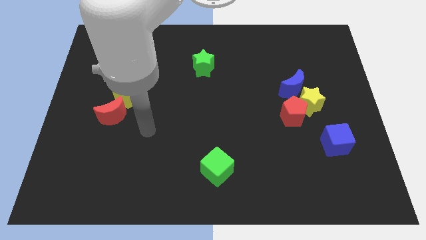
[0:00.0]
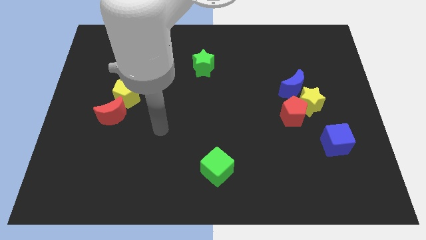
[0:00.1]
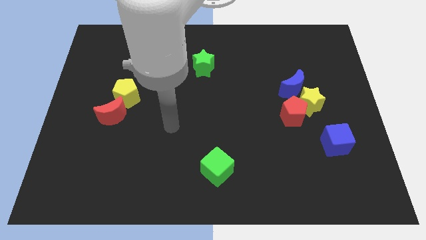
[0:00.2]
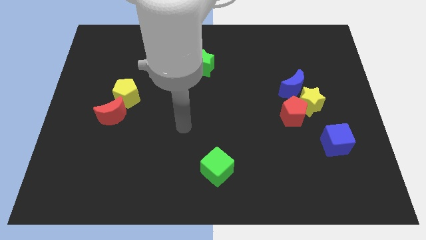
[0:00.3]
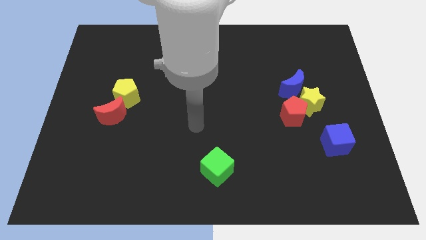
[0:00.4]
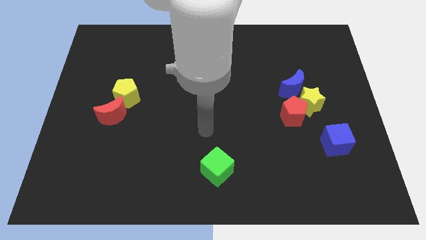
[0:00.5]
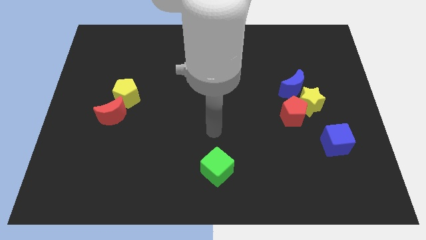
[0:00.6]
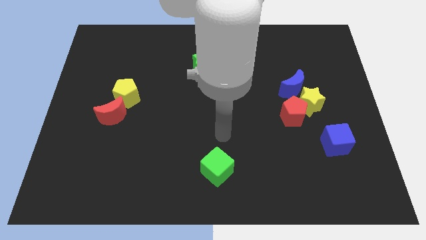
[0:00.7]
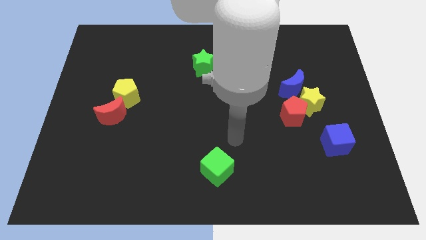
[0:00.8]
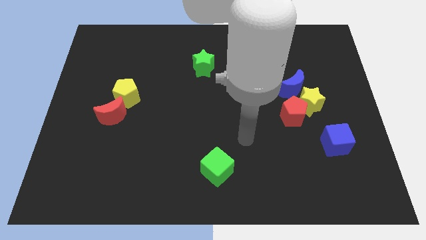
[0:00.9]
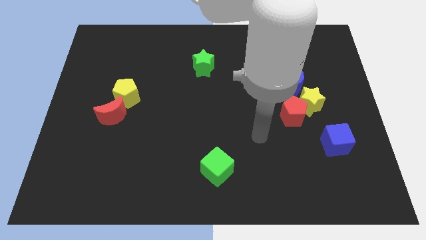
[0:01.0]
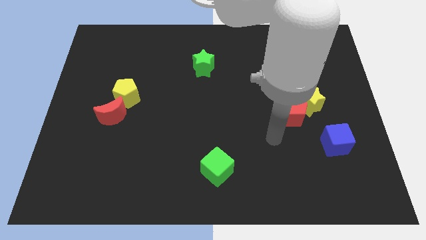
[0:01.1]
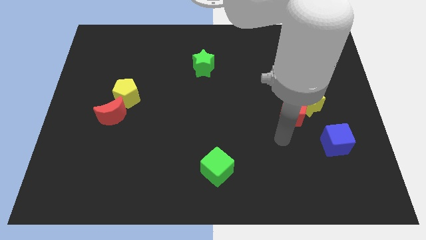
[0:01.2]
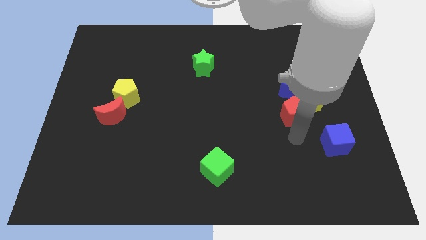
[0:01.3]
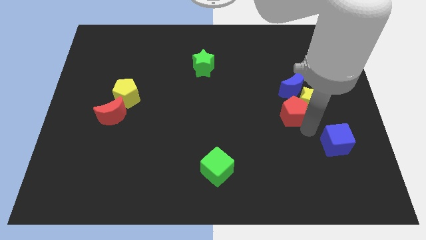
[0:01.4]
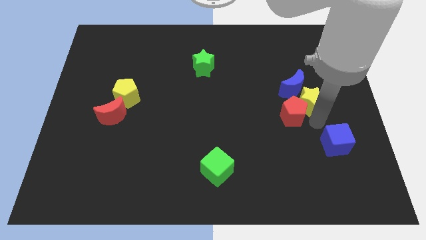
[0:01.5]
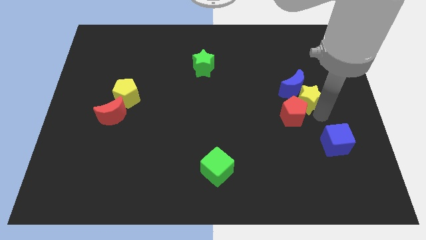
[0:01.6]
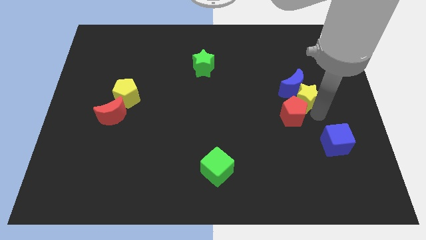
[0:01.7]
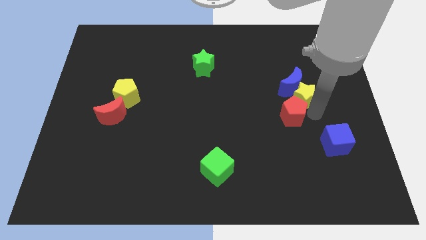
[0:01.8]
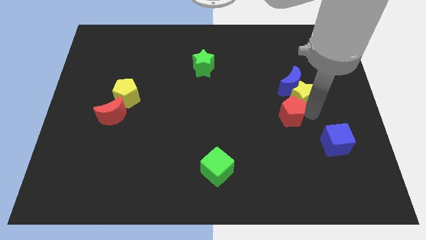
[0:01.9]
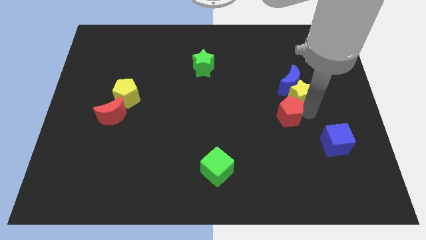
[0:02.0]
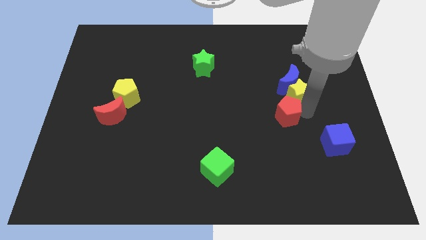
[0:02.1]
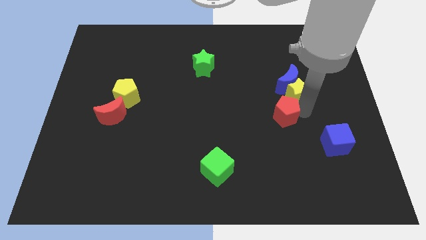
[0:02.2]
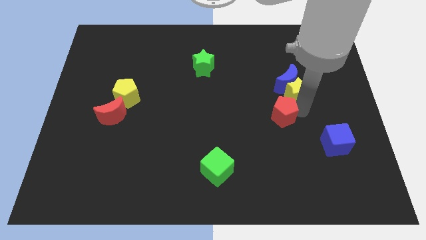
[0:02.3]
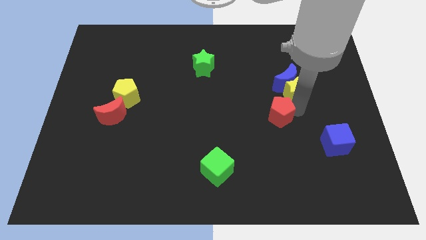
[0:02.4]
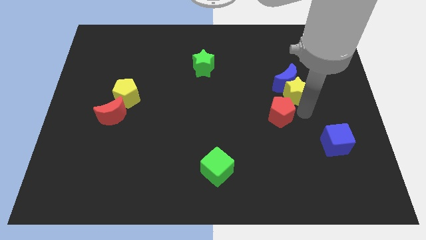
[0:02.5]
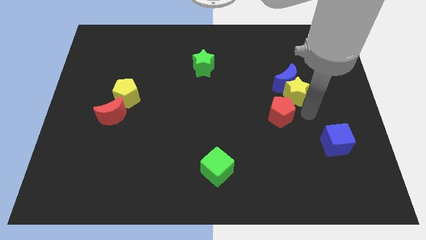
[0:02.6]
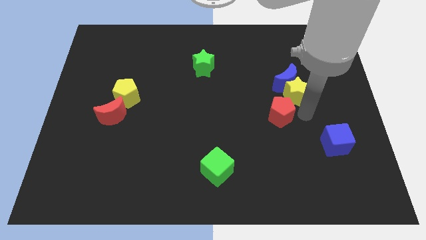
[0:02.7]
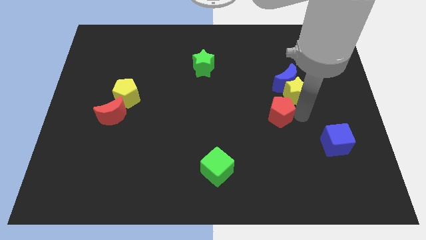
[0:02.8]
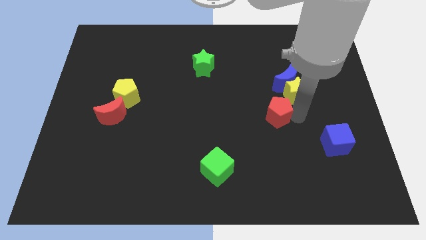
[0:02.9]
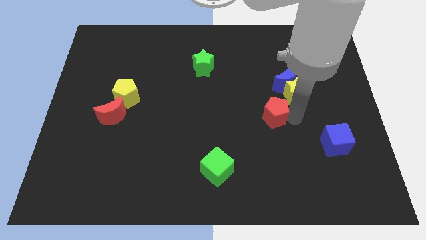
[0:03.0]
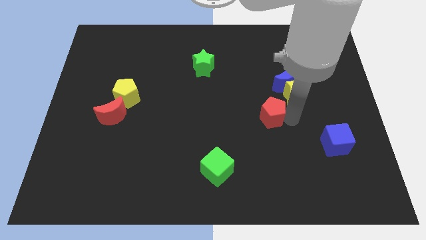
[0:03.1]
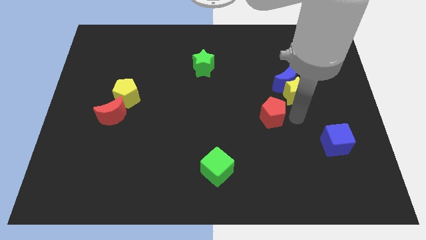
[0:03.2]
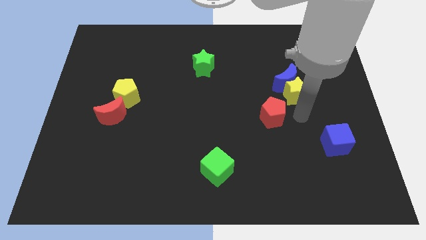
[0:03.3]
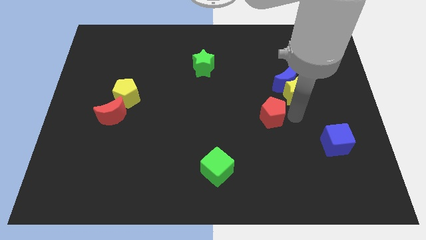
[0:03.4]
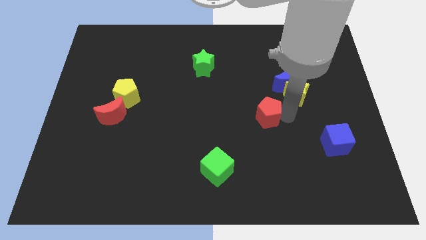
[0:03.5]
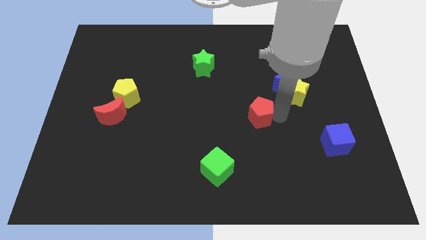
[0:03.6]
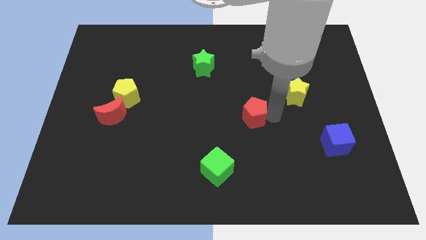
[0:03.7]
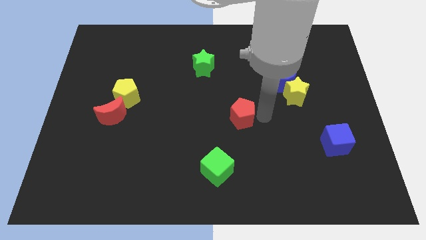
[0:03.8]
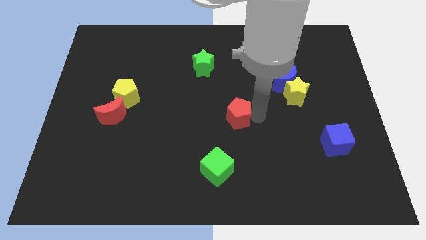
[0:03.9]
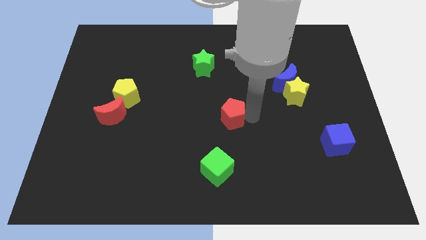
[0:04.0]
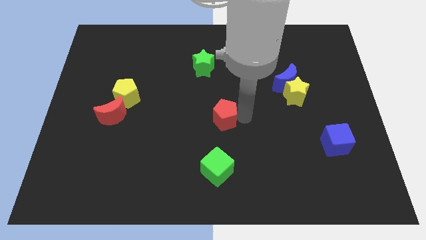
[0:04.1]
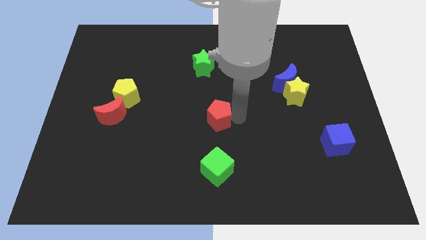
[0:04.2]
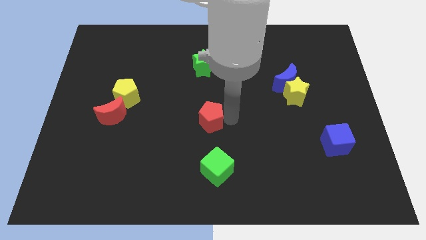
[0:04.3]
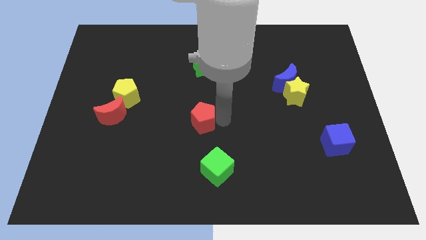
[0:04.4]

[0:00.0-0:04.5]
push the red pentagon left

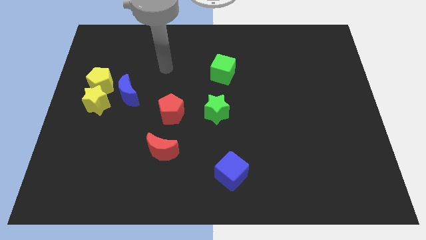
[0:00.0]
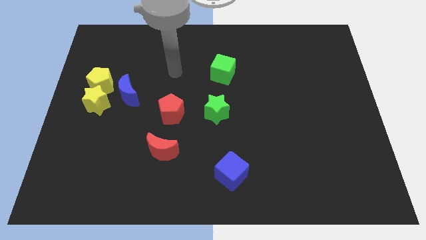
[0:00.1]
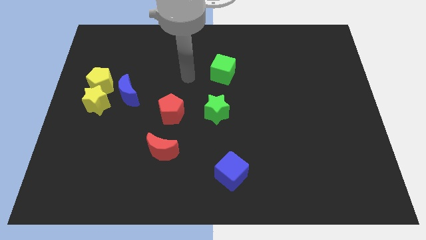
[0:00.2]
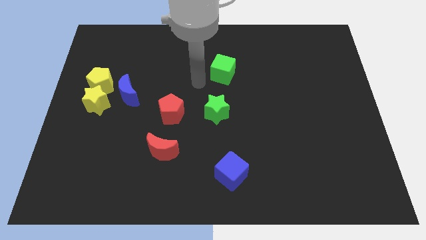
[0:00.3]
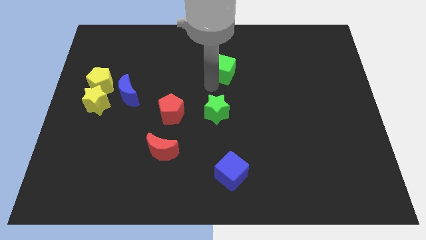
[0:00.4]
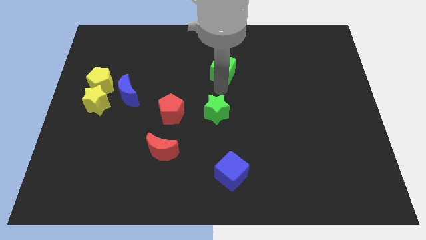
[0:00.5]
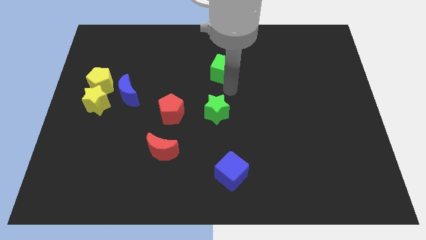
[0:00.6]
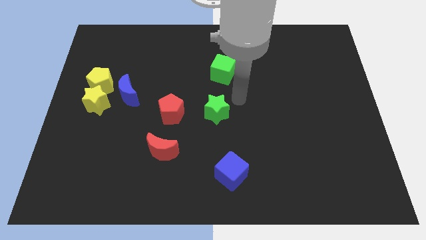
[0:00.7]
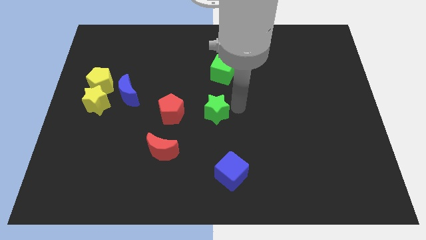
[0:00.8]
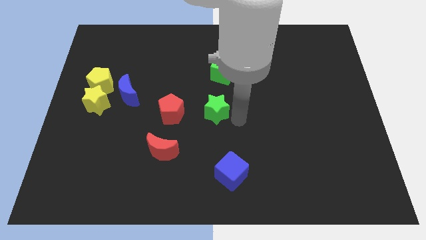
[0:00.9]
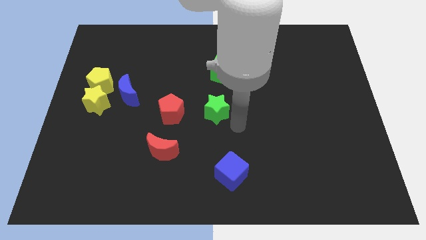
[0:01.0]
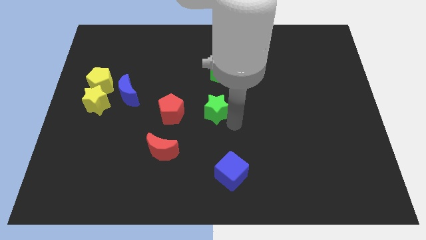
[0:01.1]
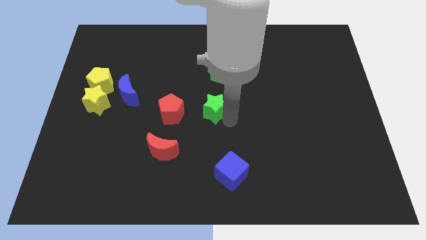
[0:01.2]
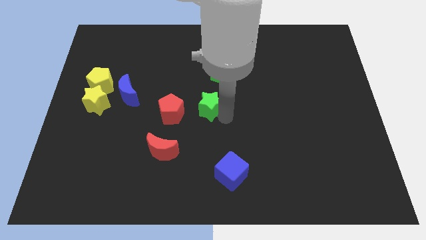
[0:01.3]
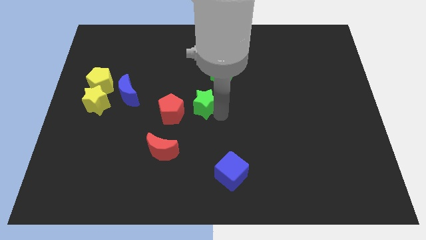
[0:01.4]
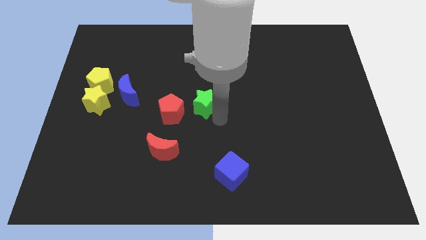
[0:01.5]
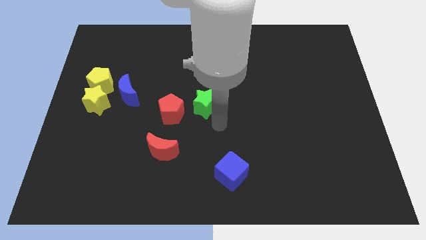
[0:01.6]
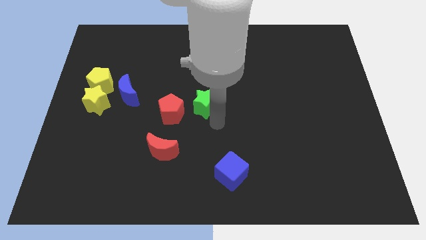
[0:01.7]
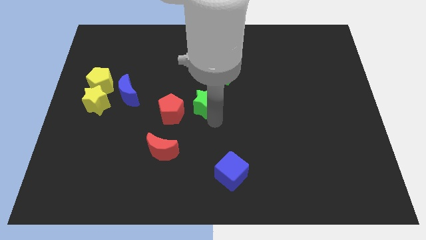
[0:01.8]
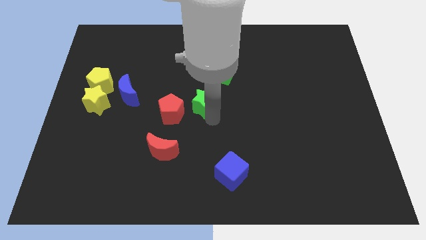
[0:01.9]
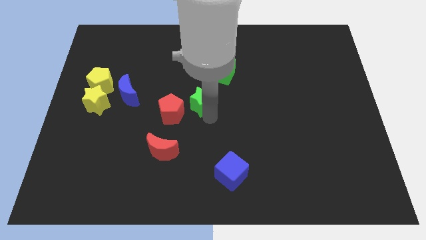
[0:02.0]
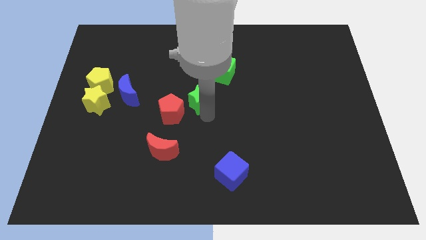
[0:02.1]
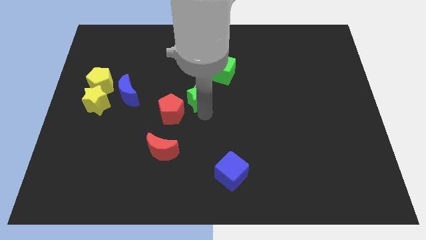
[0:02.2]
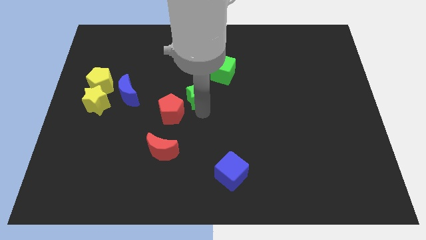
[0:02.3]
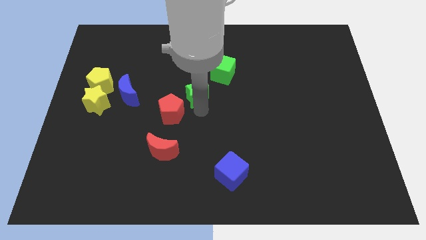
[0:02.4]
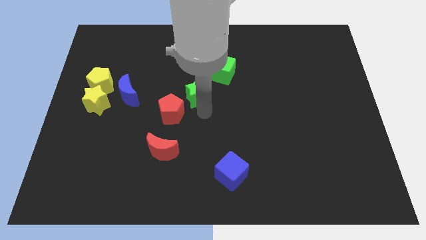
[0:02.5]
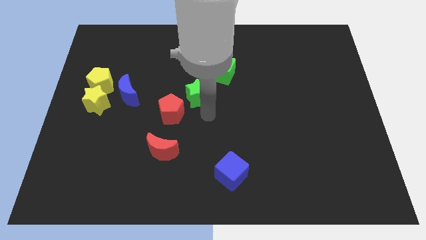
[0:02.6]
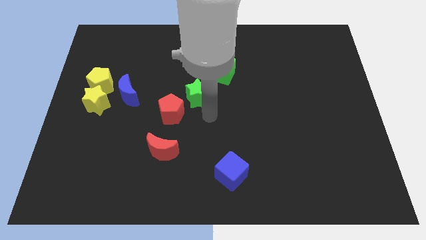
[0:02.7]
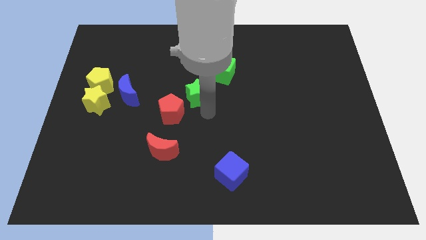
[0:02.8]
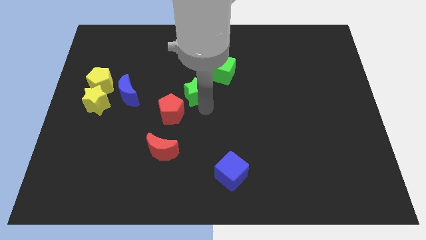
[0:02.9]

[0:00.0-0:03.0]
slightly push the green star diagonally upwards and left

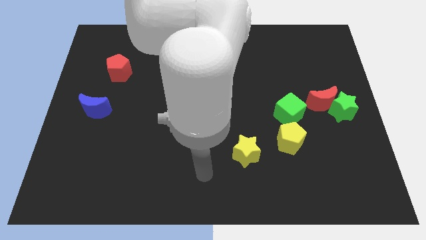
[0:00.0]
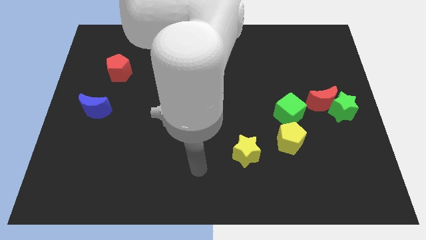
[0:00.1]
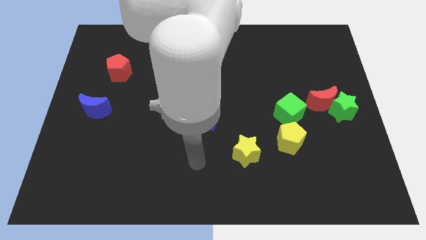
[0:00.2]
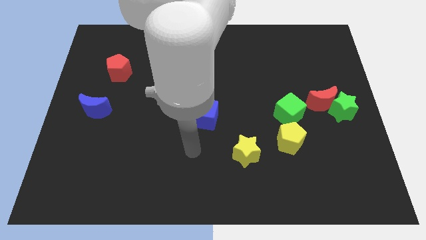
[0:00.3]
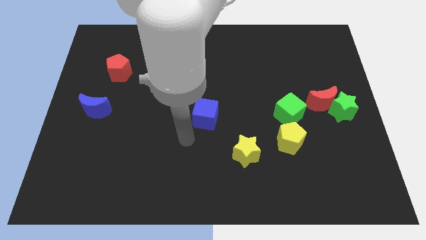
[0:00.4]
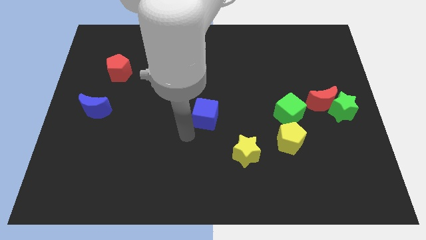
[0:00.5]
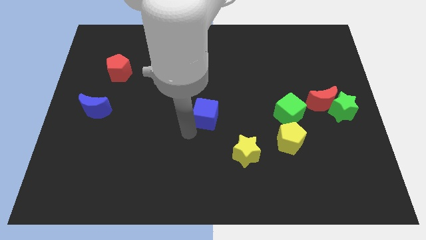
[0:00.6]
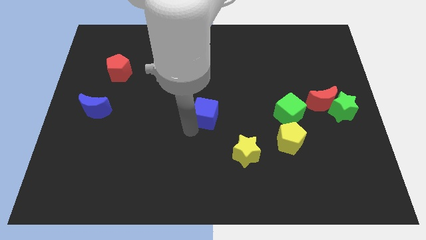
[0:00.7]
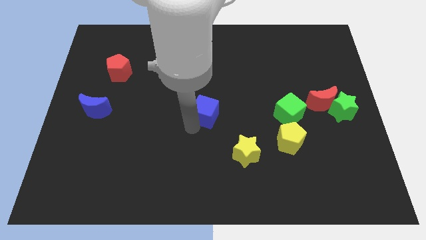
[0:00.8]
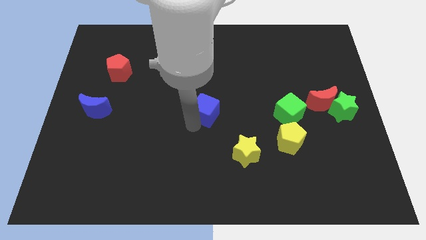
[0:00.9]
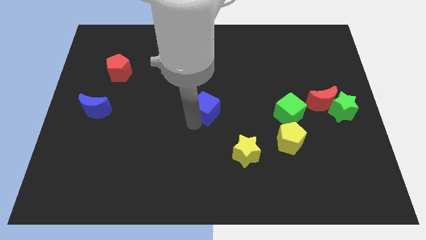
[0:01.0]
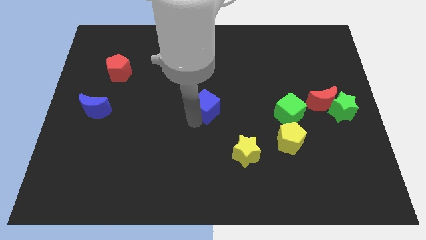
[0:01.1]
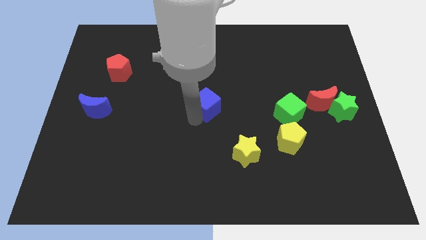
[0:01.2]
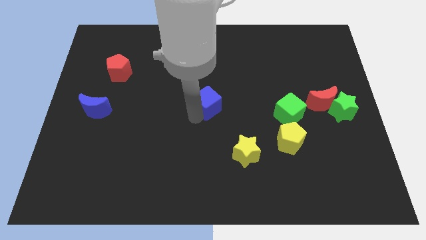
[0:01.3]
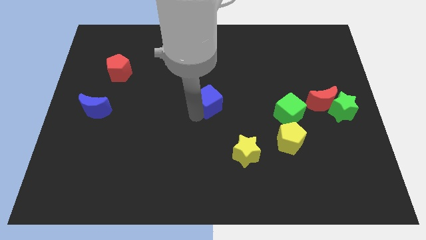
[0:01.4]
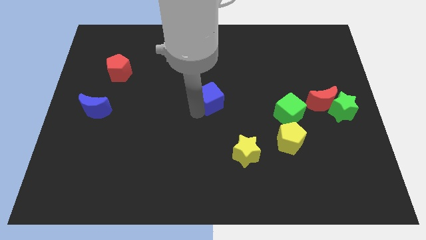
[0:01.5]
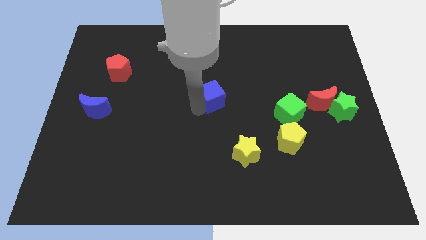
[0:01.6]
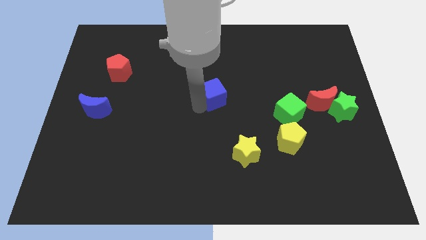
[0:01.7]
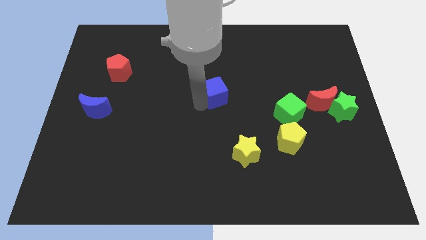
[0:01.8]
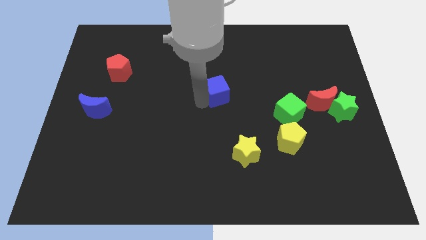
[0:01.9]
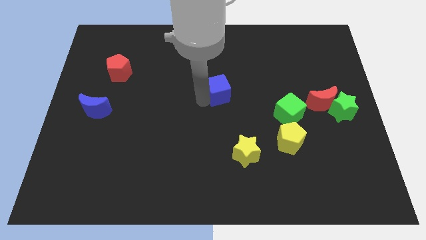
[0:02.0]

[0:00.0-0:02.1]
move the blue cube a bit up and then right
